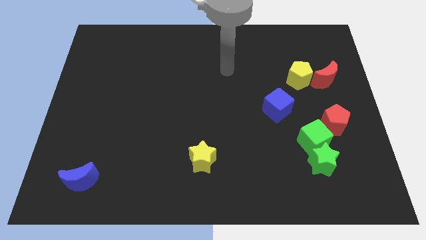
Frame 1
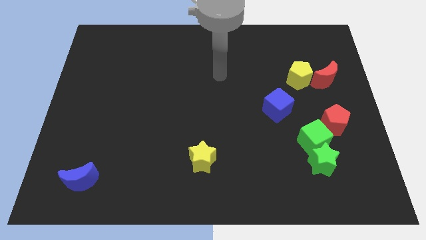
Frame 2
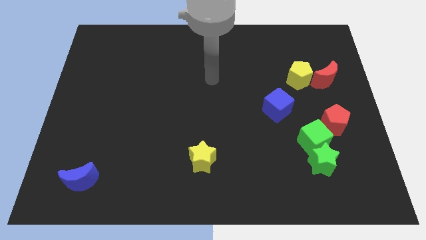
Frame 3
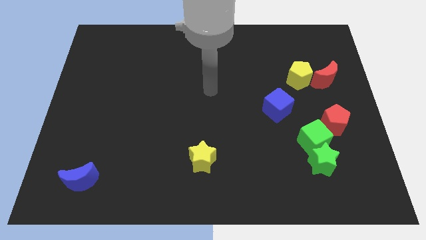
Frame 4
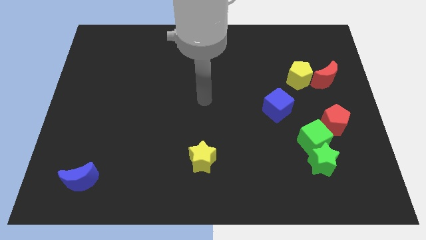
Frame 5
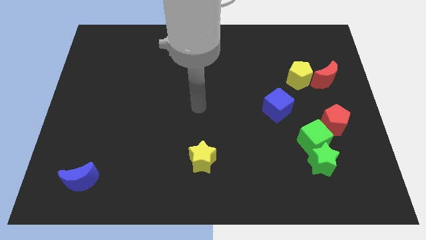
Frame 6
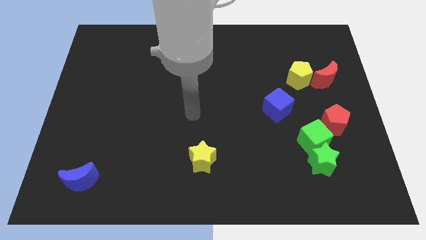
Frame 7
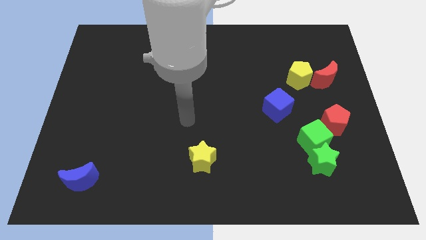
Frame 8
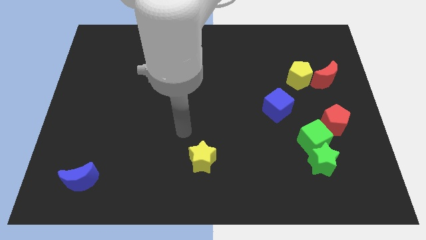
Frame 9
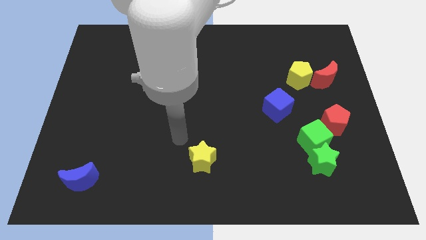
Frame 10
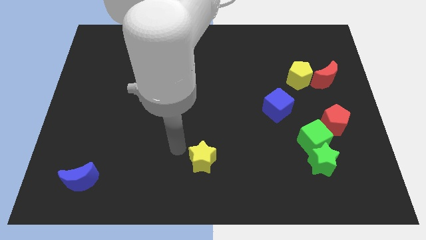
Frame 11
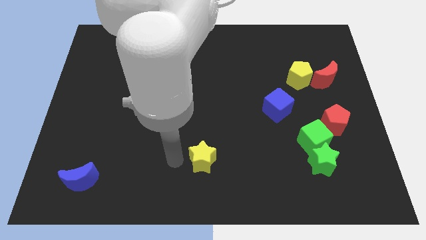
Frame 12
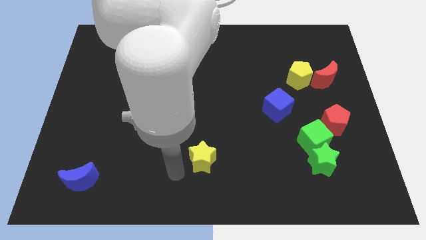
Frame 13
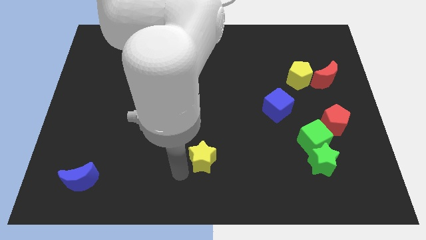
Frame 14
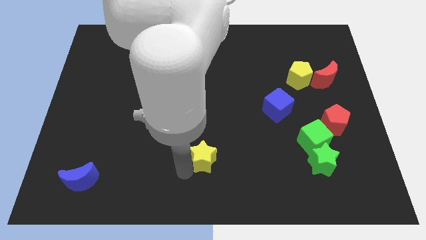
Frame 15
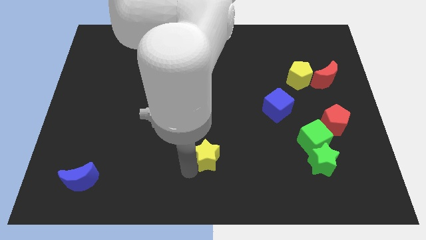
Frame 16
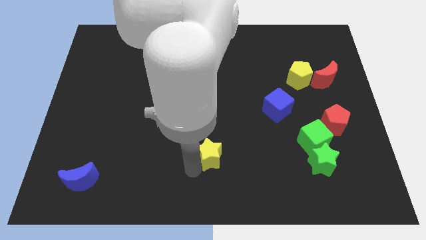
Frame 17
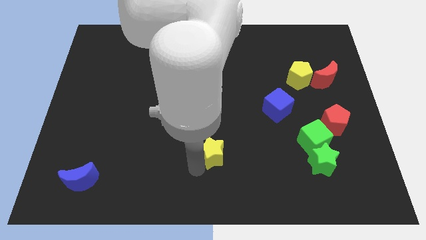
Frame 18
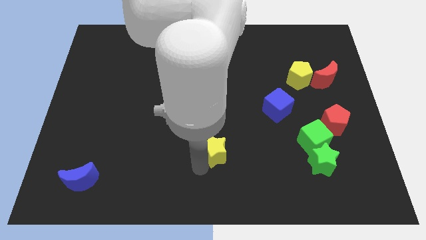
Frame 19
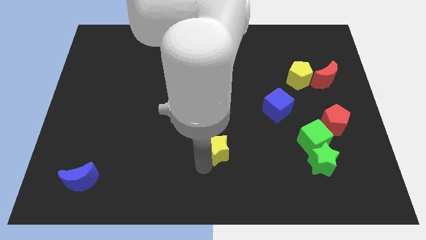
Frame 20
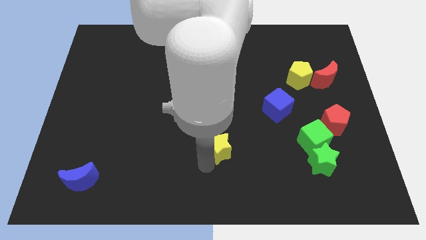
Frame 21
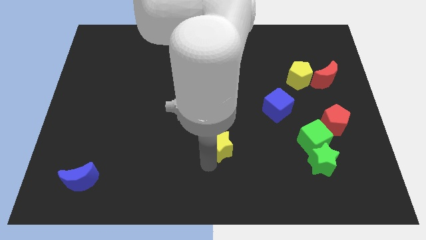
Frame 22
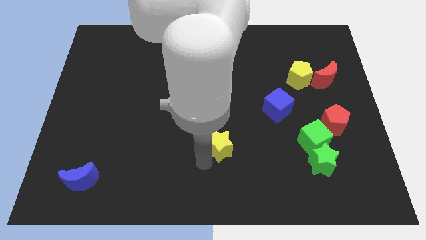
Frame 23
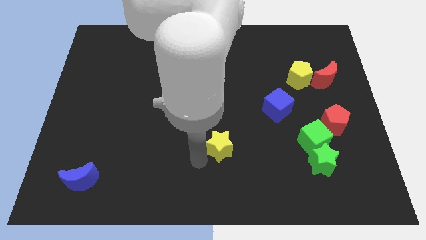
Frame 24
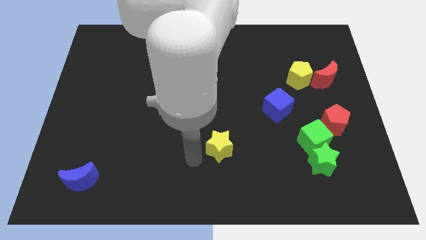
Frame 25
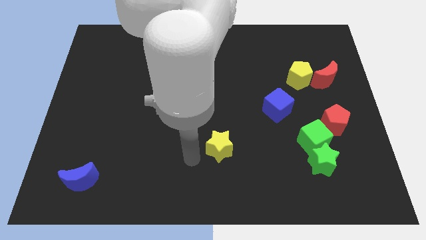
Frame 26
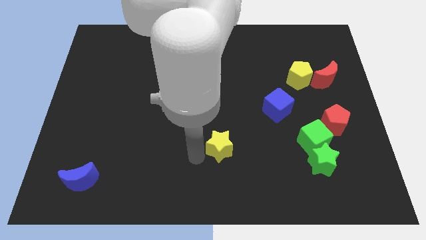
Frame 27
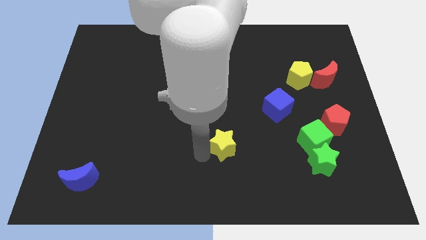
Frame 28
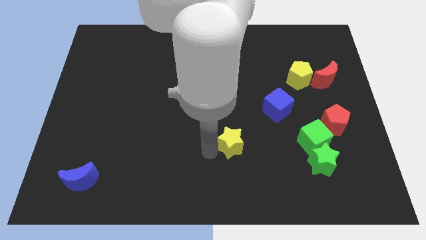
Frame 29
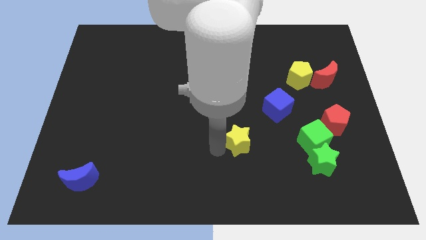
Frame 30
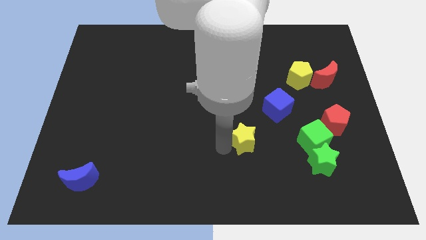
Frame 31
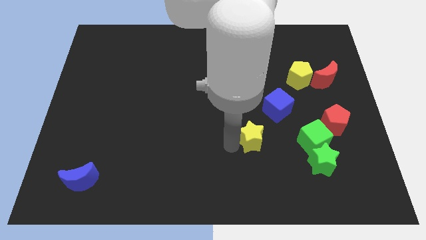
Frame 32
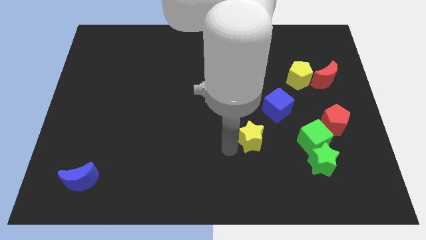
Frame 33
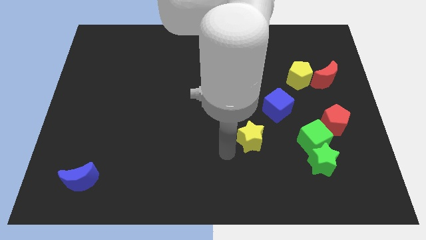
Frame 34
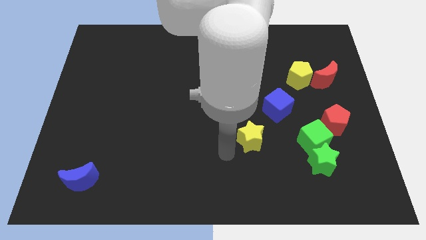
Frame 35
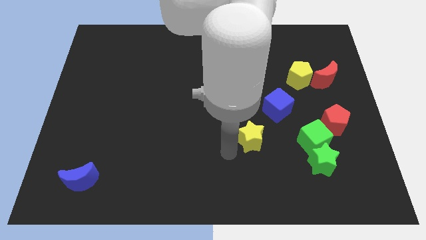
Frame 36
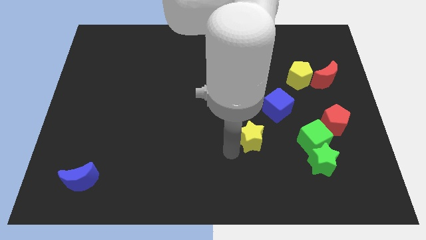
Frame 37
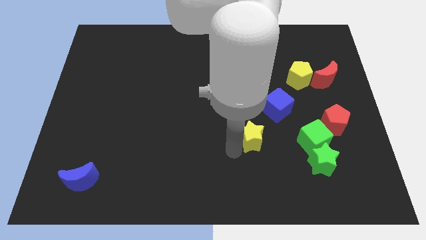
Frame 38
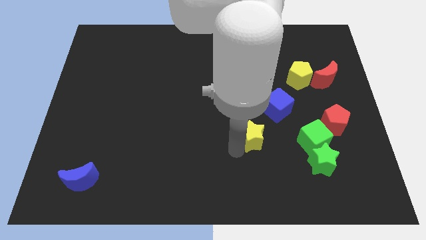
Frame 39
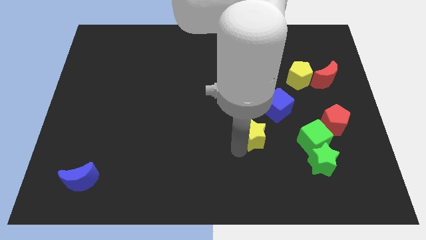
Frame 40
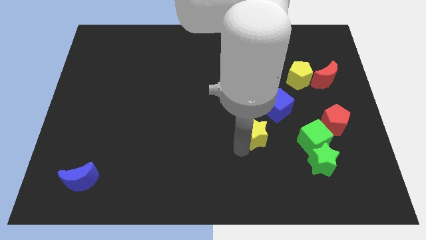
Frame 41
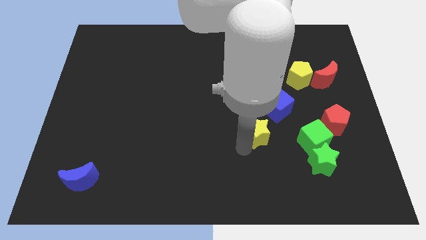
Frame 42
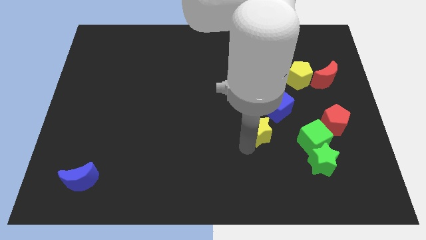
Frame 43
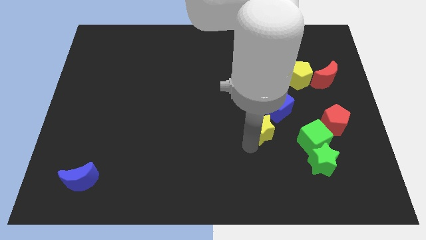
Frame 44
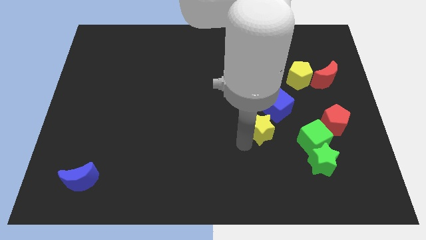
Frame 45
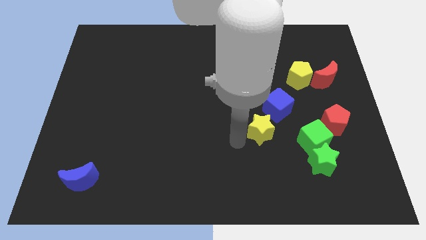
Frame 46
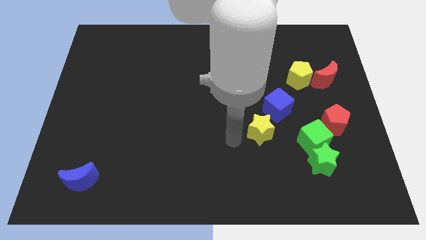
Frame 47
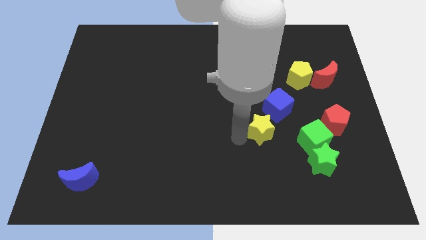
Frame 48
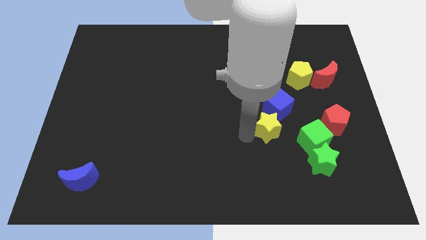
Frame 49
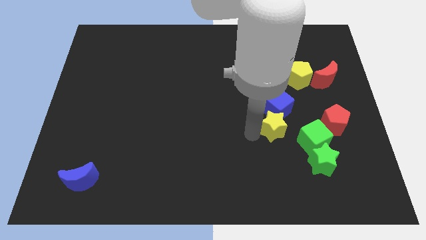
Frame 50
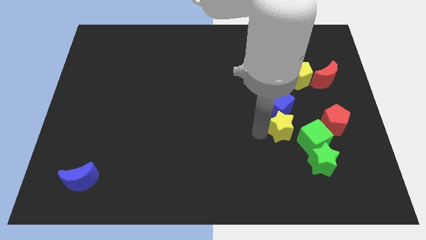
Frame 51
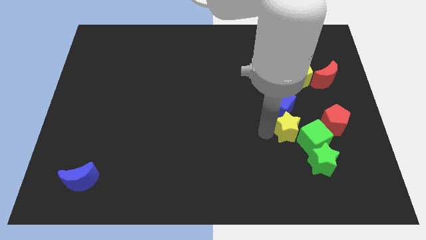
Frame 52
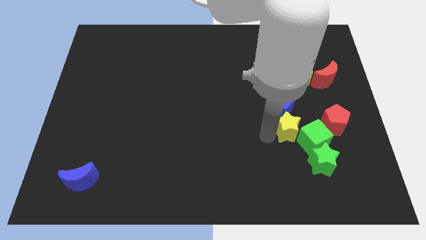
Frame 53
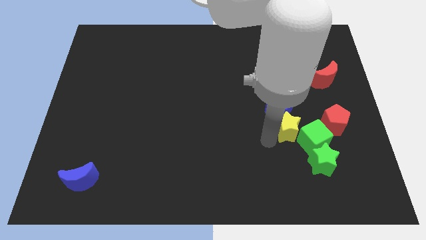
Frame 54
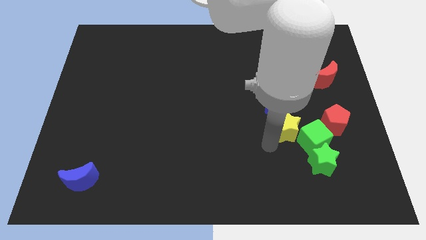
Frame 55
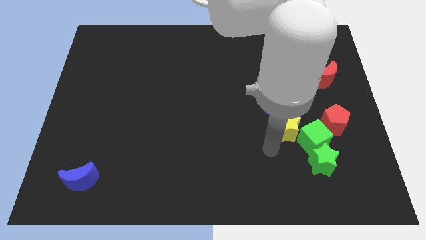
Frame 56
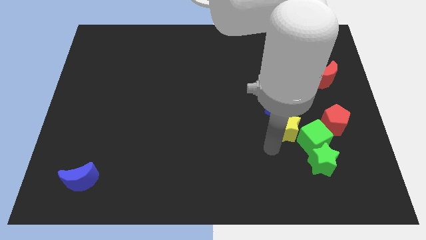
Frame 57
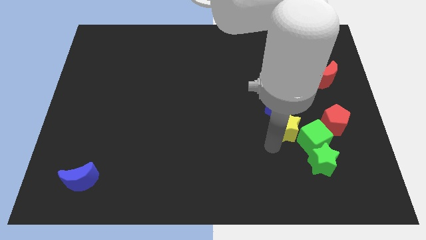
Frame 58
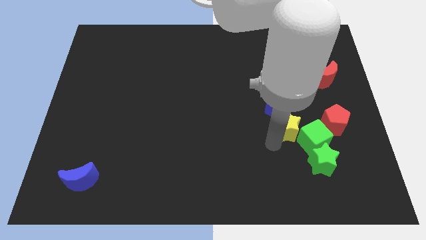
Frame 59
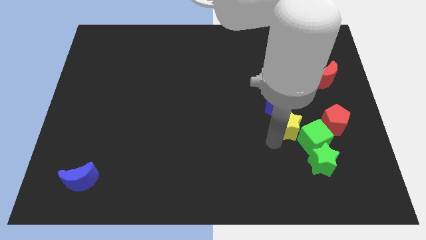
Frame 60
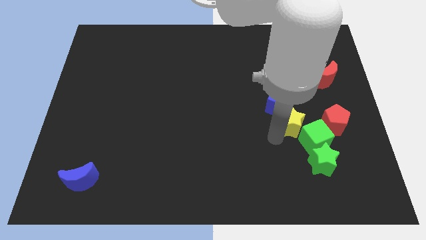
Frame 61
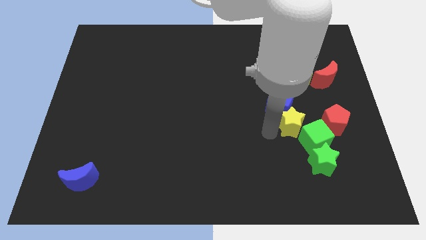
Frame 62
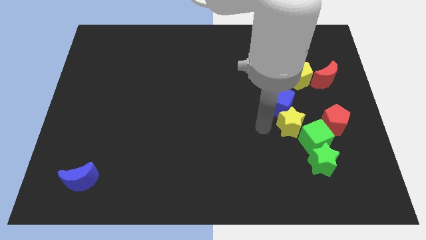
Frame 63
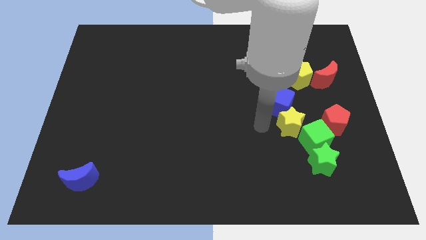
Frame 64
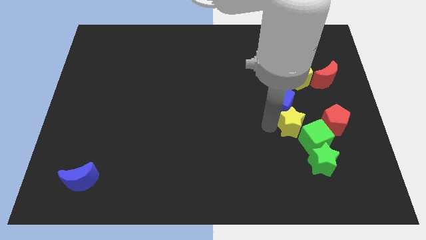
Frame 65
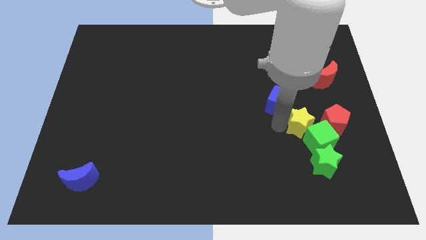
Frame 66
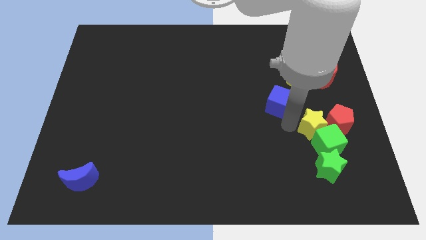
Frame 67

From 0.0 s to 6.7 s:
push the yellow star close to the red pentagon

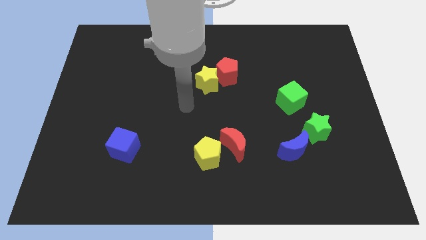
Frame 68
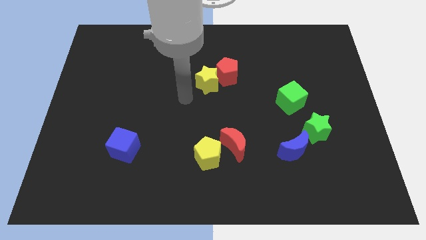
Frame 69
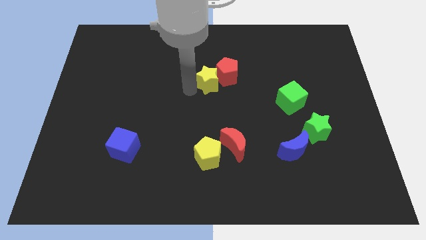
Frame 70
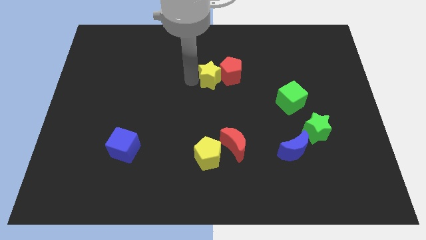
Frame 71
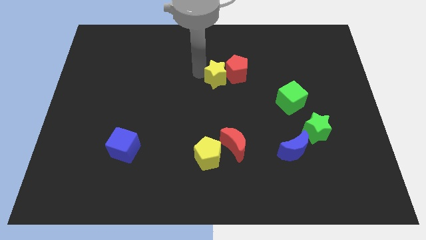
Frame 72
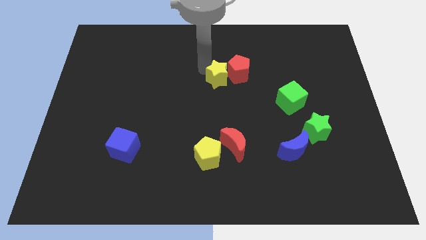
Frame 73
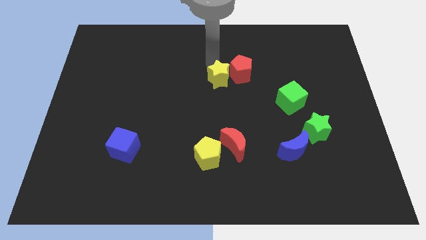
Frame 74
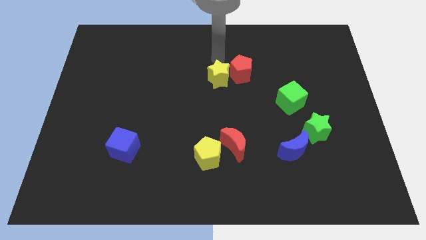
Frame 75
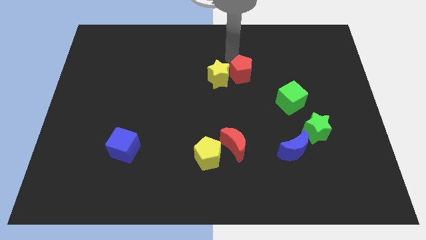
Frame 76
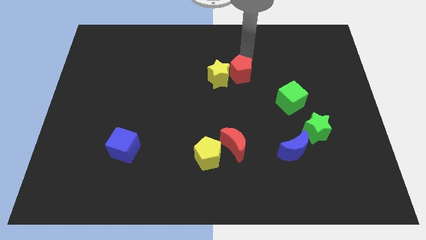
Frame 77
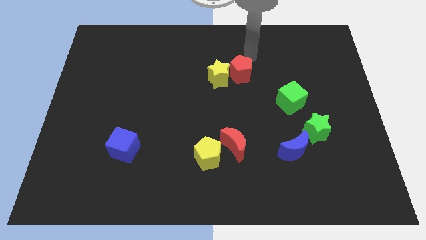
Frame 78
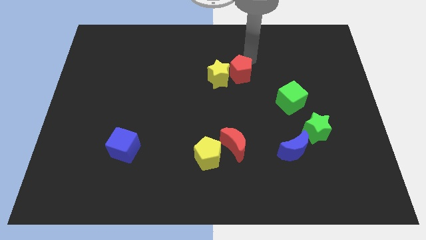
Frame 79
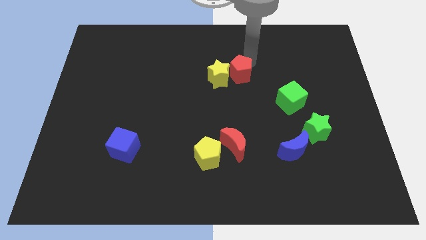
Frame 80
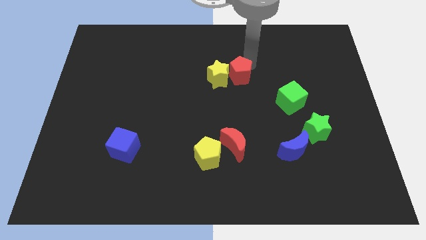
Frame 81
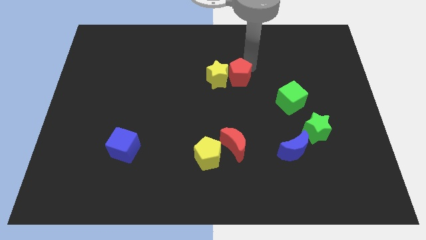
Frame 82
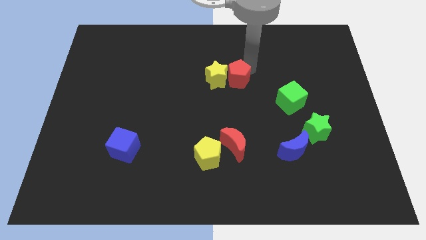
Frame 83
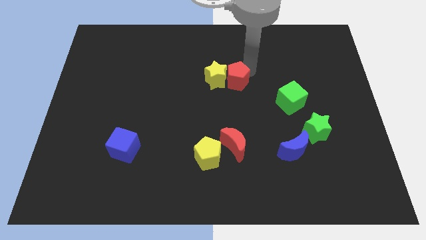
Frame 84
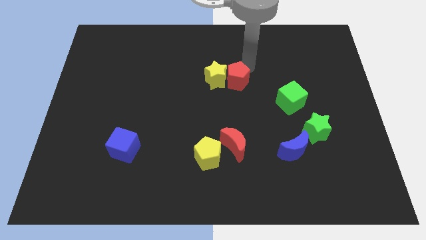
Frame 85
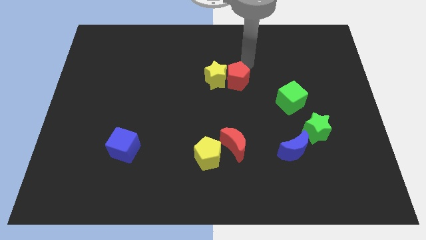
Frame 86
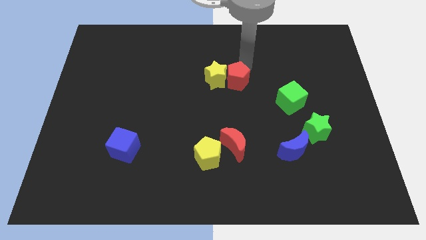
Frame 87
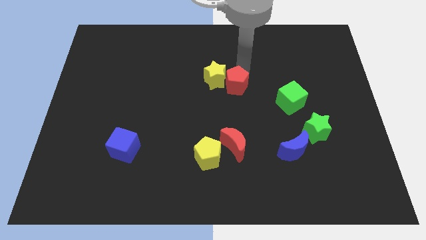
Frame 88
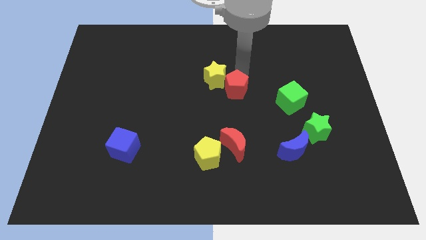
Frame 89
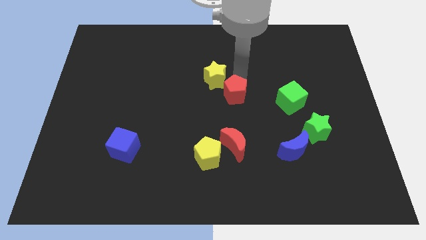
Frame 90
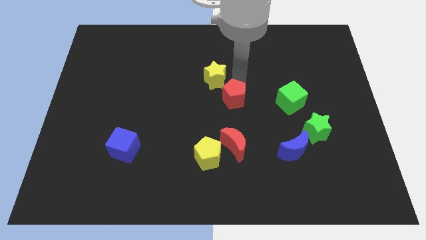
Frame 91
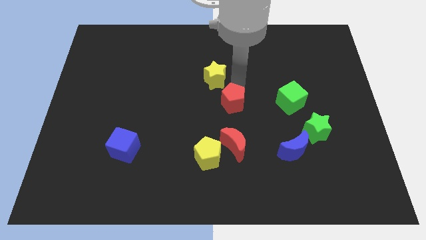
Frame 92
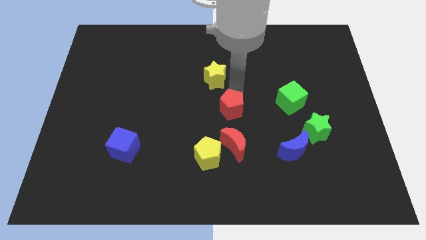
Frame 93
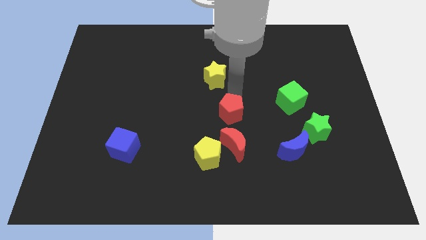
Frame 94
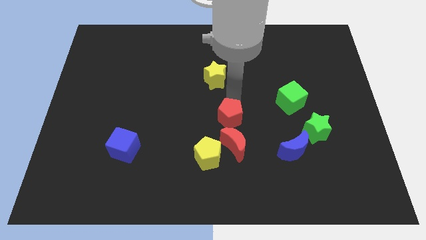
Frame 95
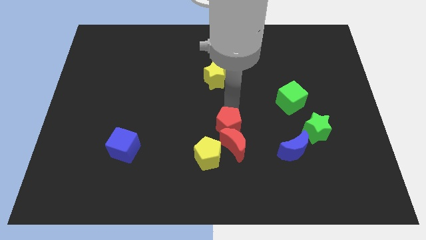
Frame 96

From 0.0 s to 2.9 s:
put the red pentagon next to the red moon
